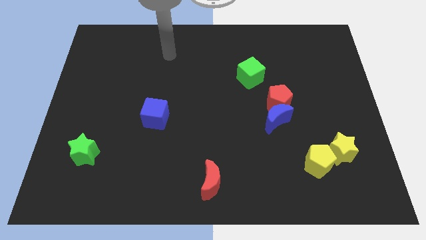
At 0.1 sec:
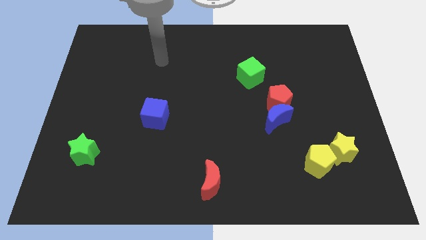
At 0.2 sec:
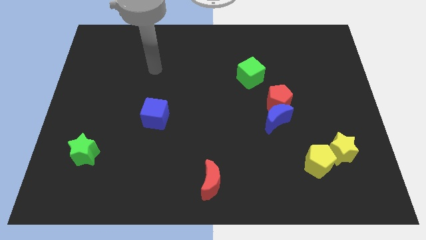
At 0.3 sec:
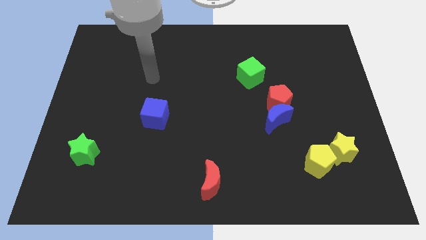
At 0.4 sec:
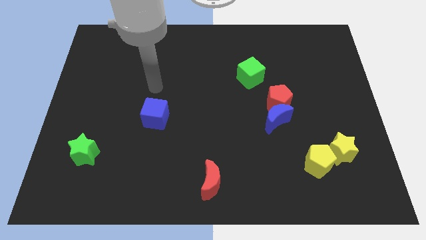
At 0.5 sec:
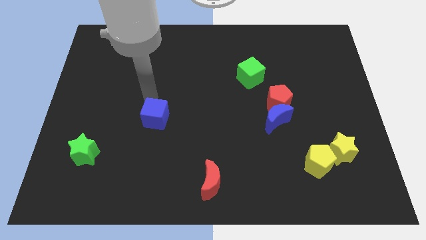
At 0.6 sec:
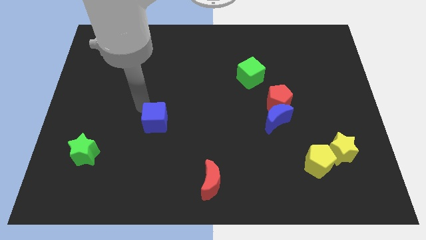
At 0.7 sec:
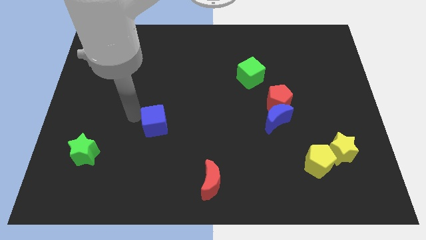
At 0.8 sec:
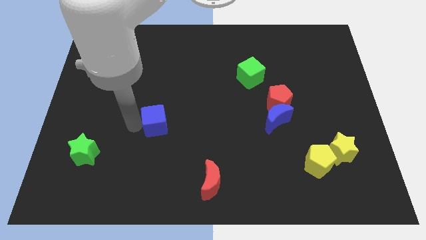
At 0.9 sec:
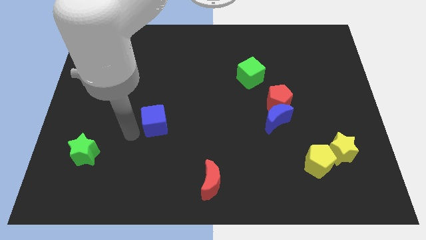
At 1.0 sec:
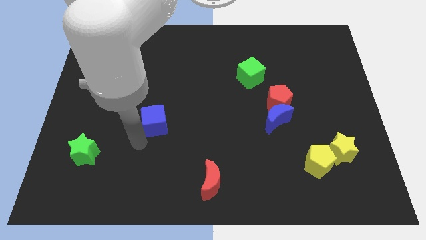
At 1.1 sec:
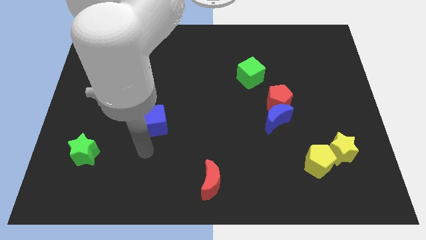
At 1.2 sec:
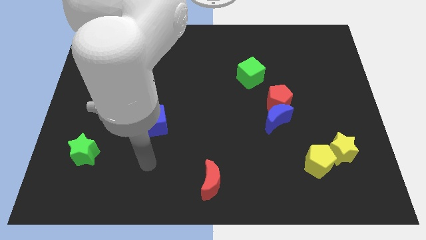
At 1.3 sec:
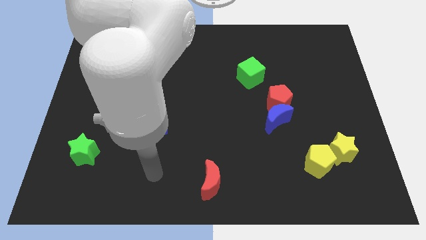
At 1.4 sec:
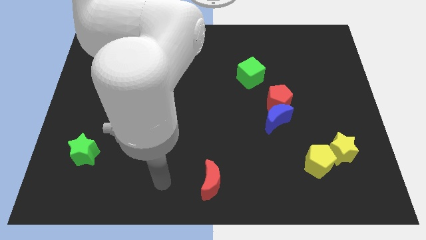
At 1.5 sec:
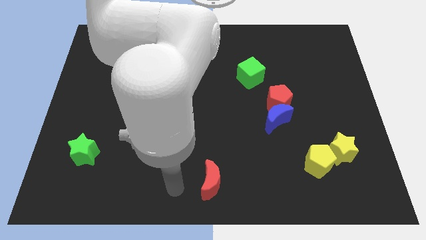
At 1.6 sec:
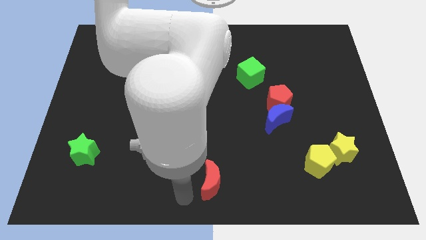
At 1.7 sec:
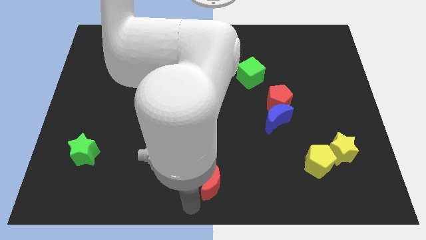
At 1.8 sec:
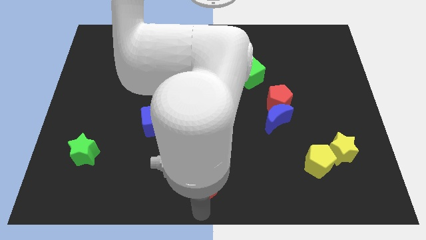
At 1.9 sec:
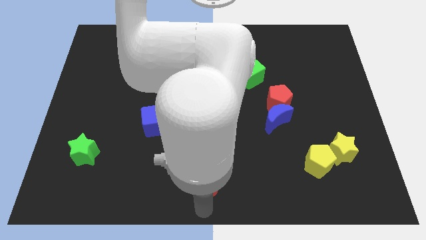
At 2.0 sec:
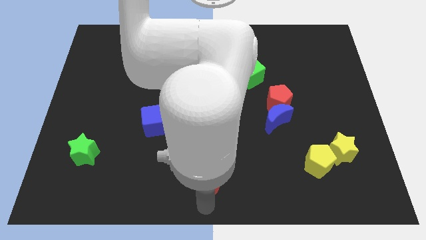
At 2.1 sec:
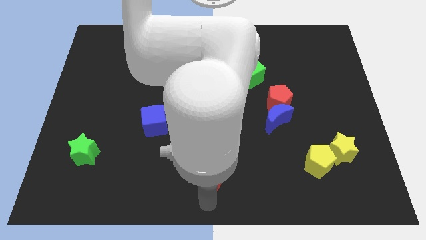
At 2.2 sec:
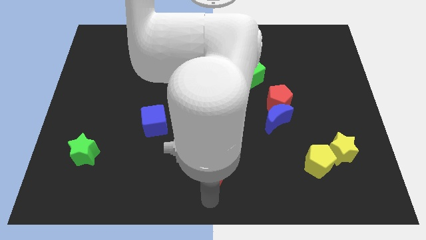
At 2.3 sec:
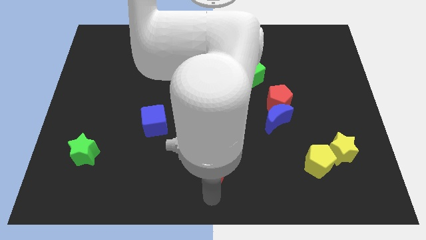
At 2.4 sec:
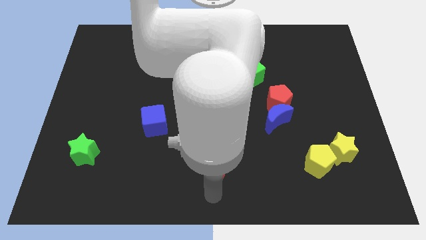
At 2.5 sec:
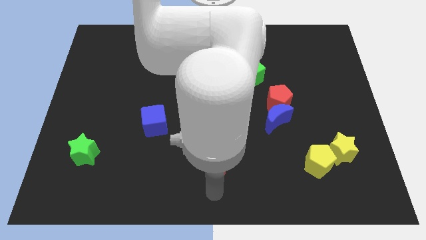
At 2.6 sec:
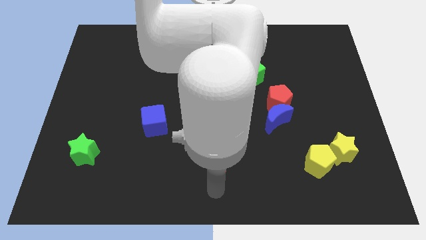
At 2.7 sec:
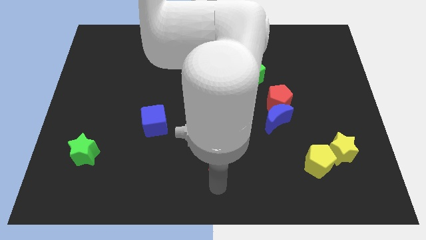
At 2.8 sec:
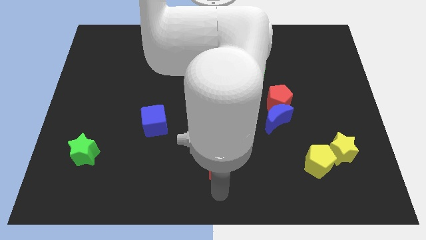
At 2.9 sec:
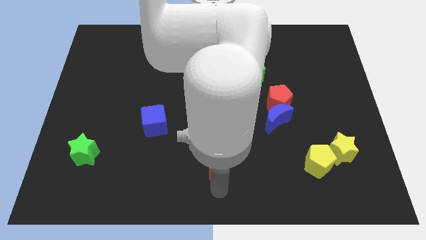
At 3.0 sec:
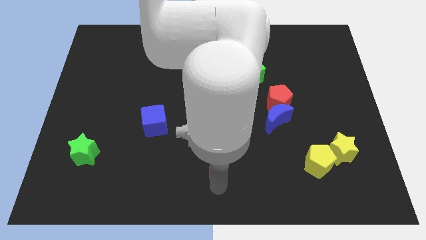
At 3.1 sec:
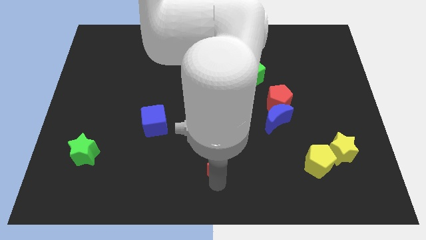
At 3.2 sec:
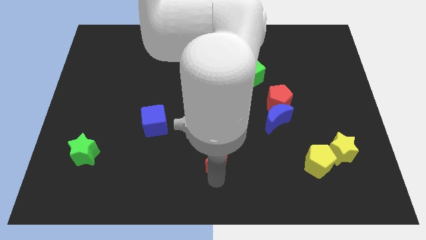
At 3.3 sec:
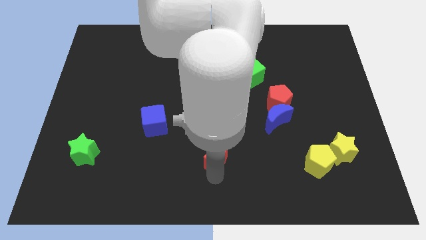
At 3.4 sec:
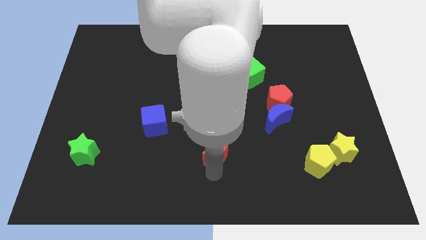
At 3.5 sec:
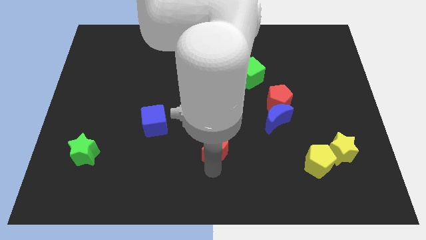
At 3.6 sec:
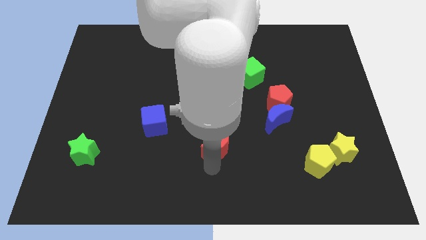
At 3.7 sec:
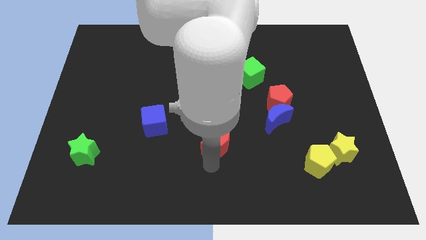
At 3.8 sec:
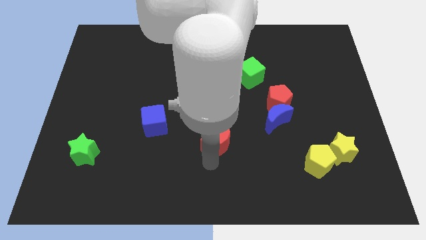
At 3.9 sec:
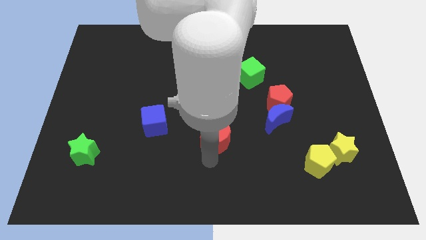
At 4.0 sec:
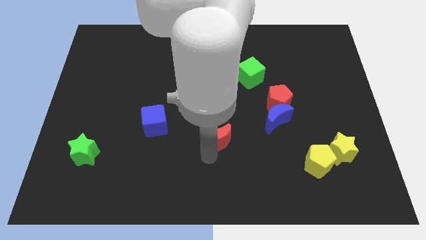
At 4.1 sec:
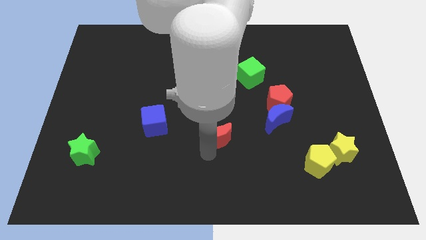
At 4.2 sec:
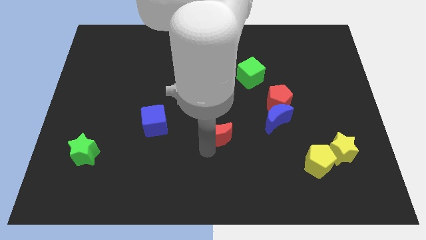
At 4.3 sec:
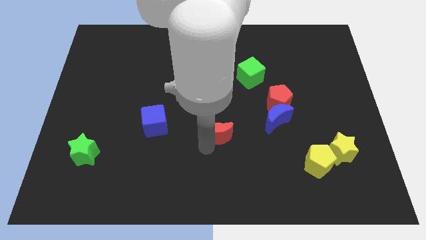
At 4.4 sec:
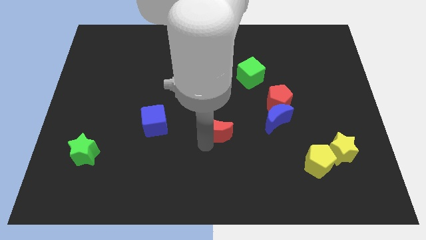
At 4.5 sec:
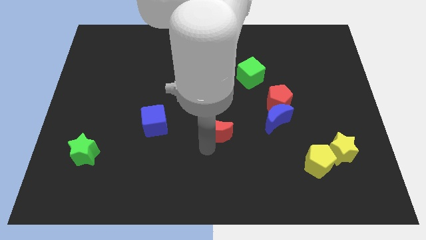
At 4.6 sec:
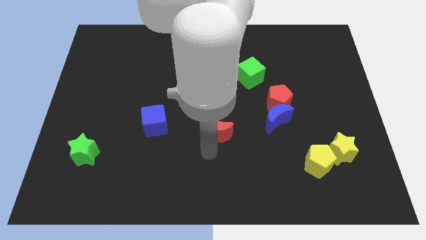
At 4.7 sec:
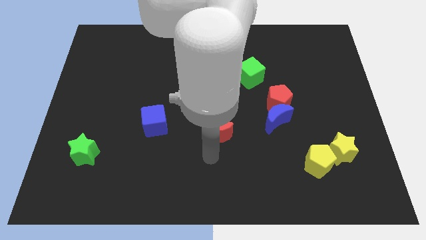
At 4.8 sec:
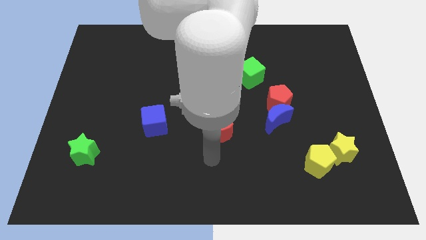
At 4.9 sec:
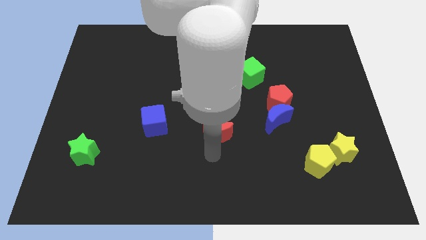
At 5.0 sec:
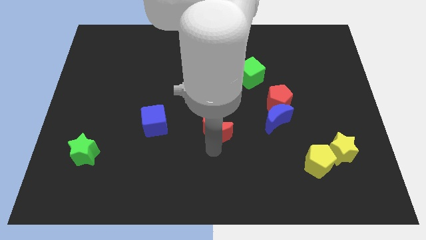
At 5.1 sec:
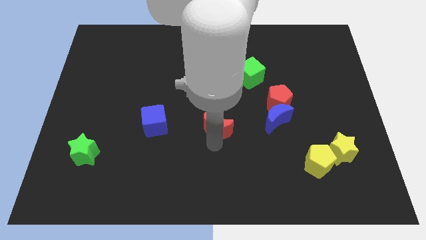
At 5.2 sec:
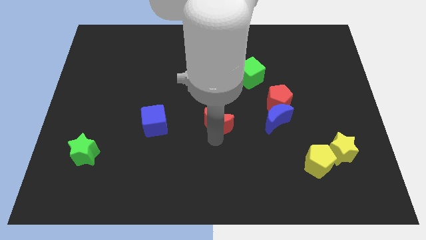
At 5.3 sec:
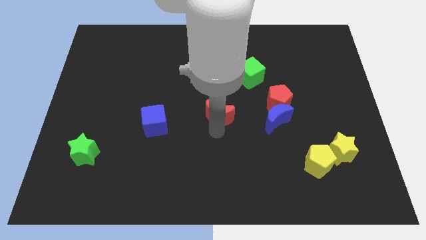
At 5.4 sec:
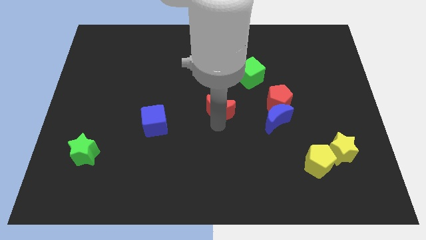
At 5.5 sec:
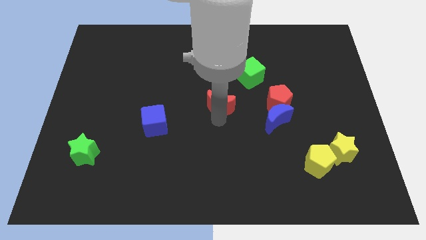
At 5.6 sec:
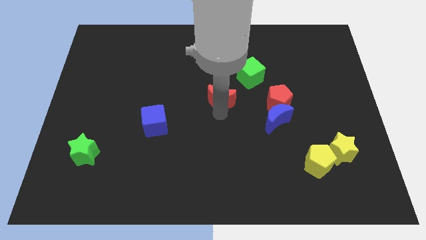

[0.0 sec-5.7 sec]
move the red moon upwards

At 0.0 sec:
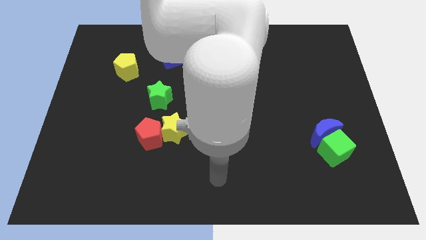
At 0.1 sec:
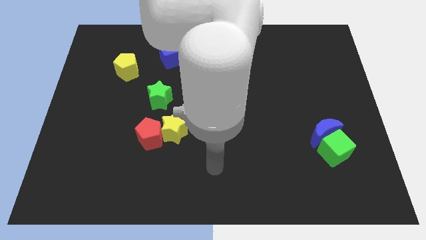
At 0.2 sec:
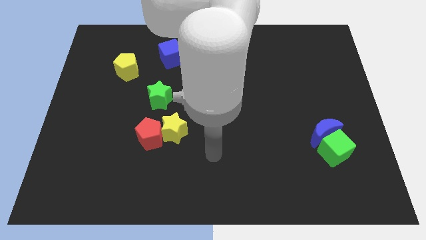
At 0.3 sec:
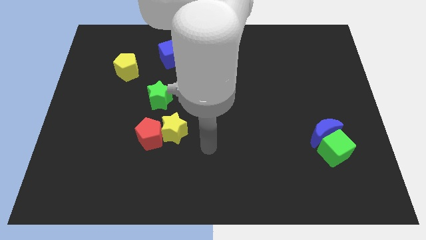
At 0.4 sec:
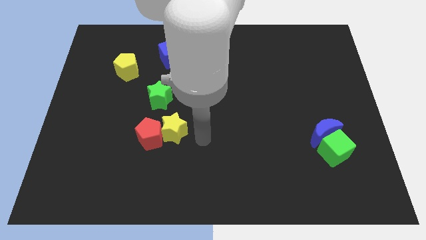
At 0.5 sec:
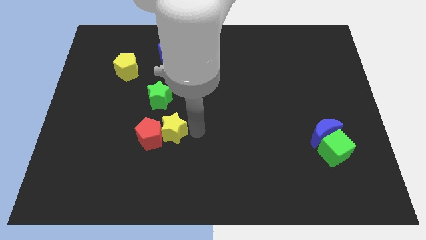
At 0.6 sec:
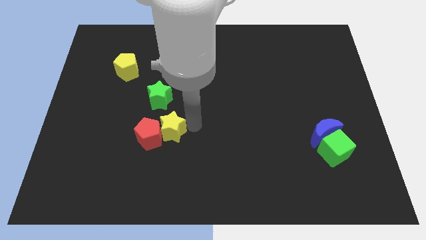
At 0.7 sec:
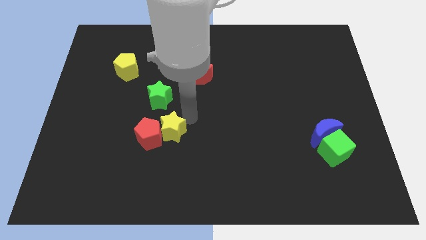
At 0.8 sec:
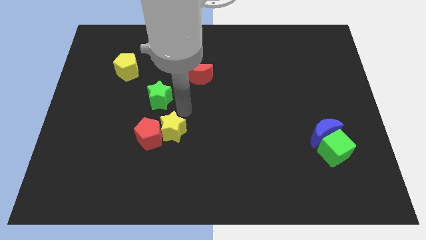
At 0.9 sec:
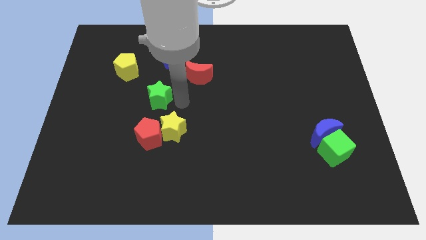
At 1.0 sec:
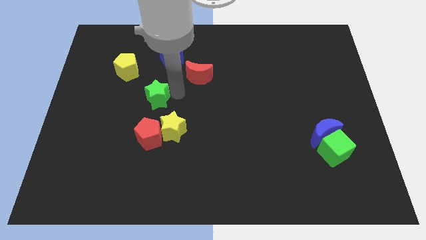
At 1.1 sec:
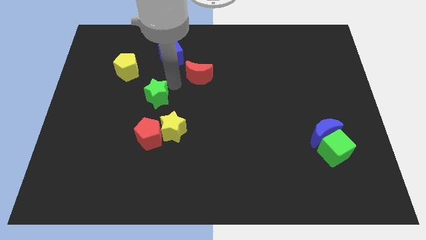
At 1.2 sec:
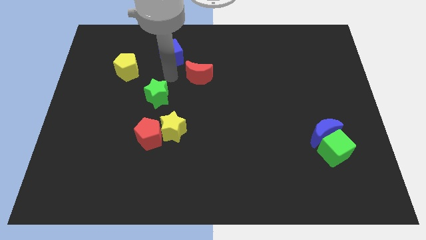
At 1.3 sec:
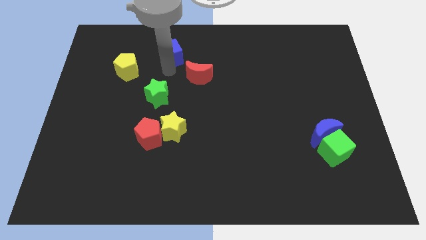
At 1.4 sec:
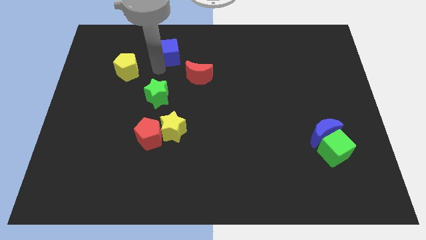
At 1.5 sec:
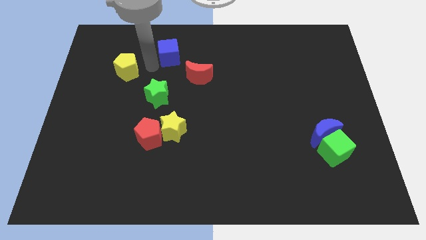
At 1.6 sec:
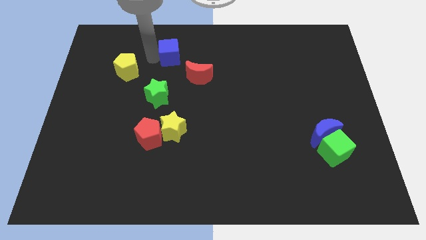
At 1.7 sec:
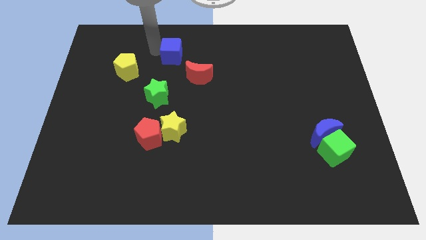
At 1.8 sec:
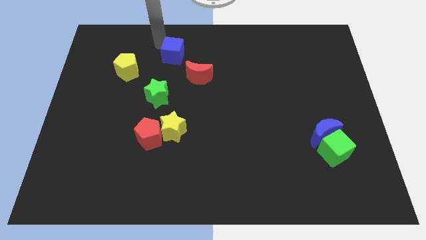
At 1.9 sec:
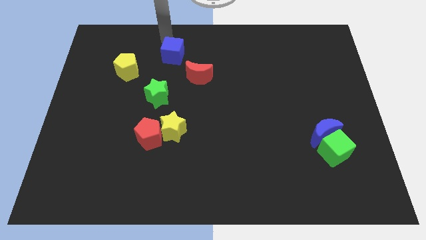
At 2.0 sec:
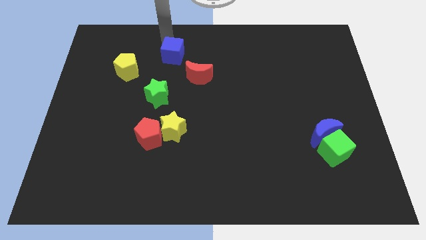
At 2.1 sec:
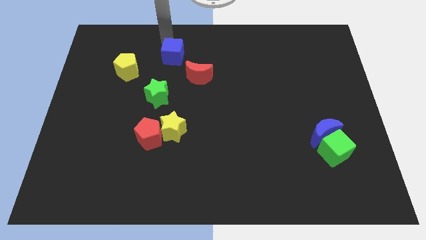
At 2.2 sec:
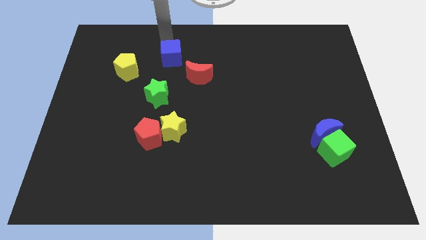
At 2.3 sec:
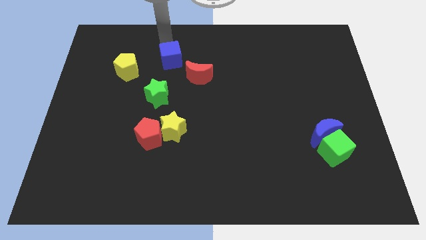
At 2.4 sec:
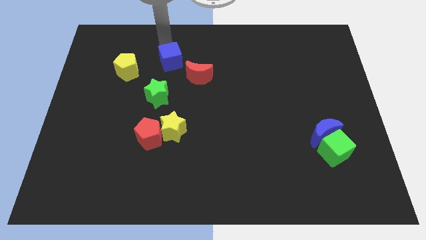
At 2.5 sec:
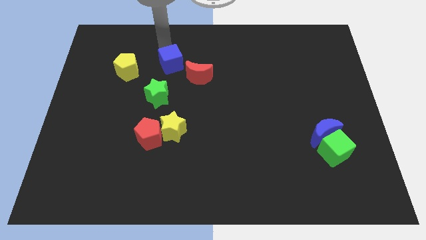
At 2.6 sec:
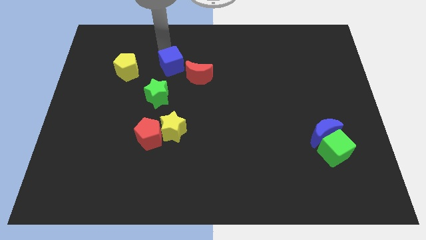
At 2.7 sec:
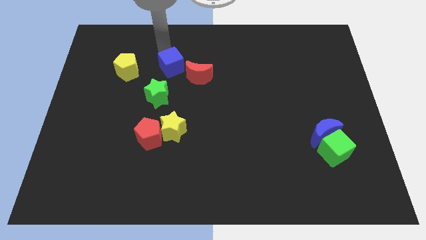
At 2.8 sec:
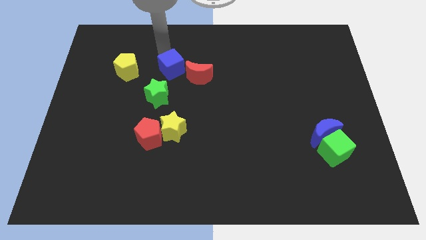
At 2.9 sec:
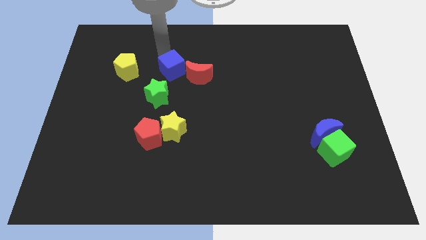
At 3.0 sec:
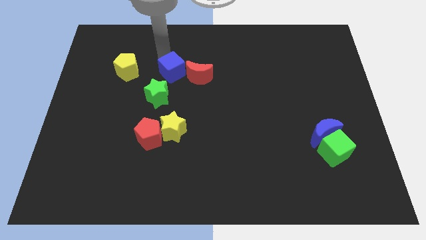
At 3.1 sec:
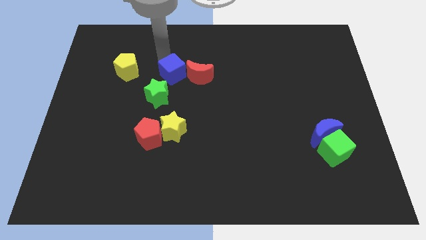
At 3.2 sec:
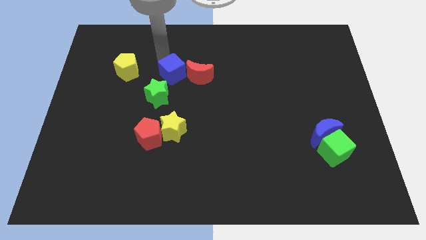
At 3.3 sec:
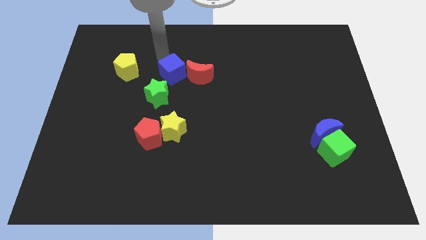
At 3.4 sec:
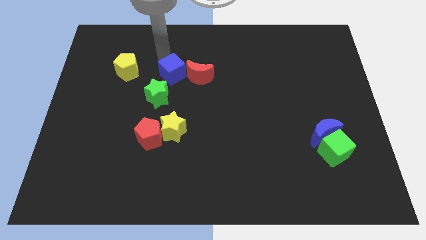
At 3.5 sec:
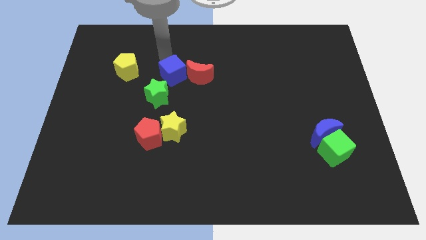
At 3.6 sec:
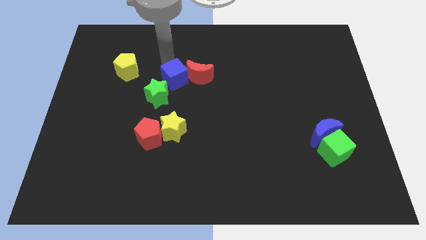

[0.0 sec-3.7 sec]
move the blue cube a little bit downwards
